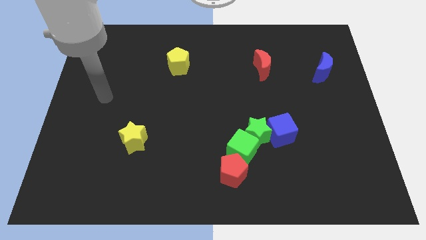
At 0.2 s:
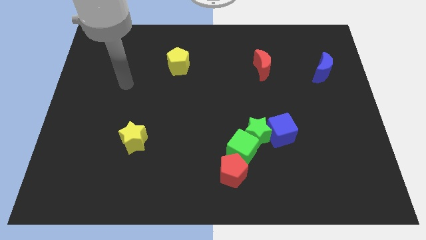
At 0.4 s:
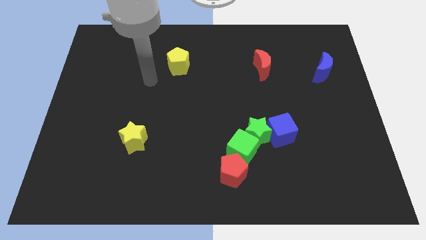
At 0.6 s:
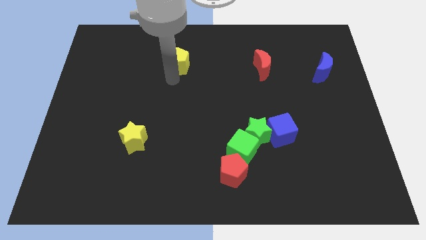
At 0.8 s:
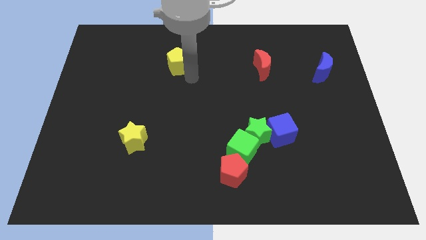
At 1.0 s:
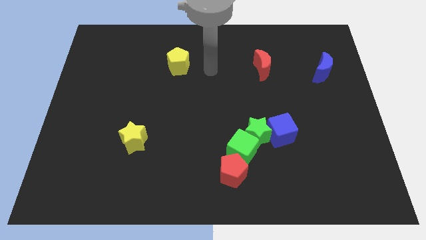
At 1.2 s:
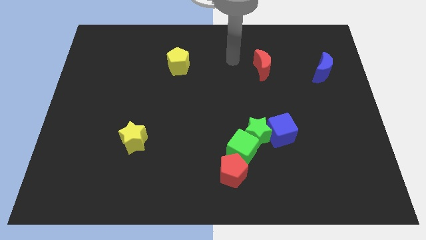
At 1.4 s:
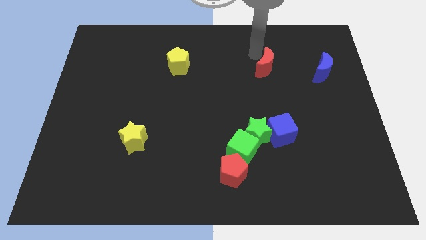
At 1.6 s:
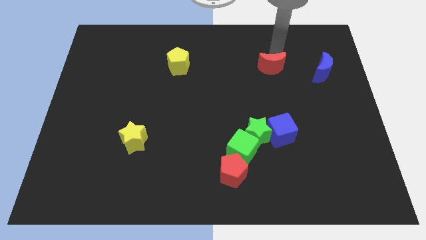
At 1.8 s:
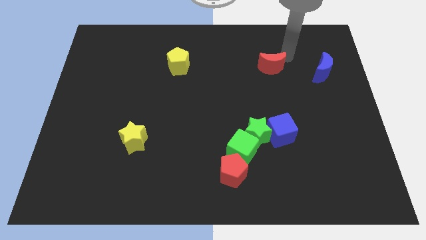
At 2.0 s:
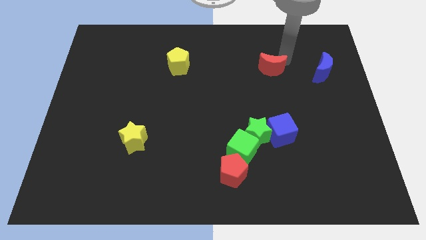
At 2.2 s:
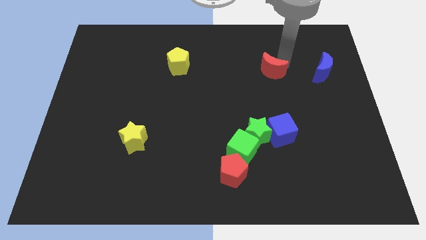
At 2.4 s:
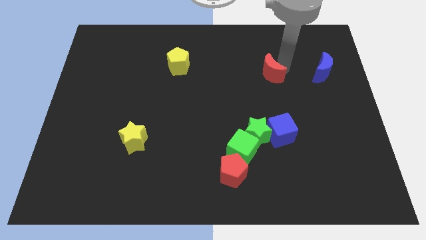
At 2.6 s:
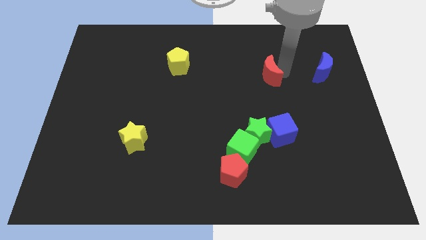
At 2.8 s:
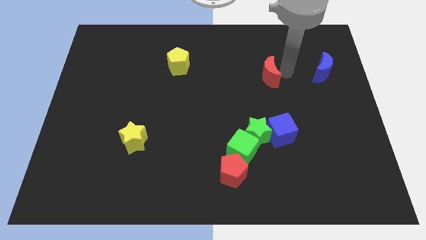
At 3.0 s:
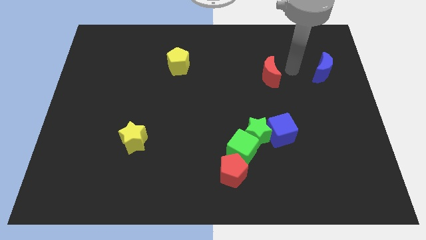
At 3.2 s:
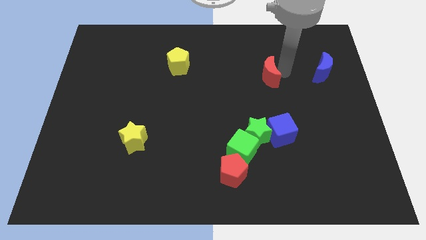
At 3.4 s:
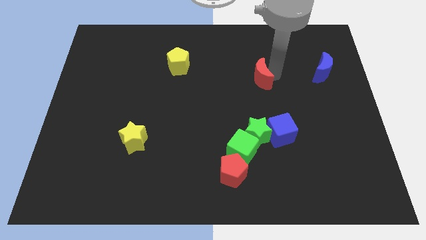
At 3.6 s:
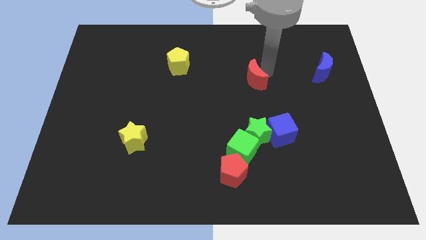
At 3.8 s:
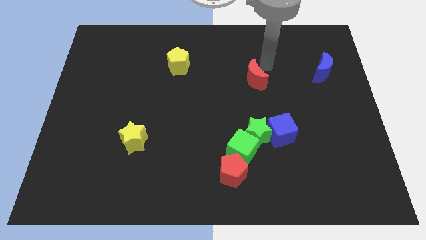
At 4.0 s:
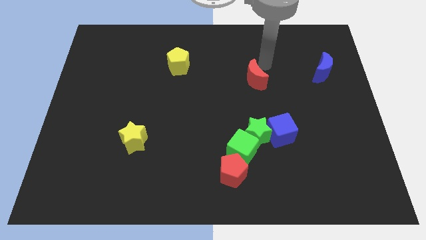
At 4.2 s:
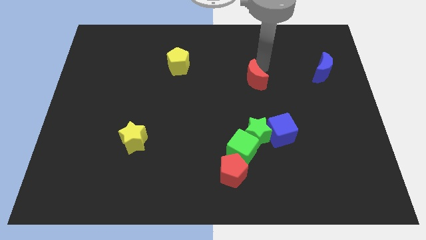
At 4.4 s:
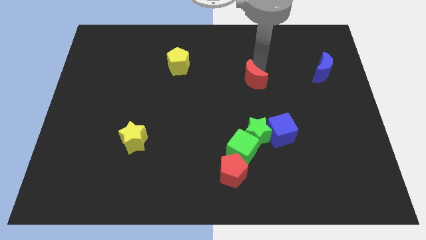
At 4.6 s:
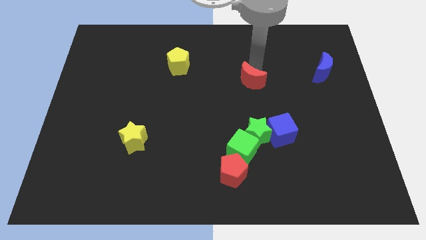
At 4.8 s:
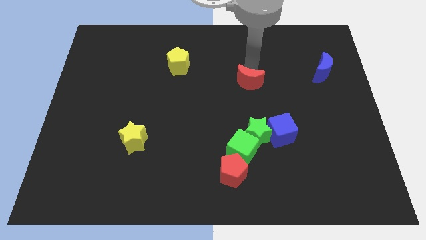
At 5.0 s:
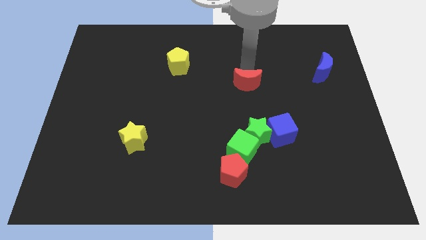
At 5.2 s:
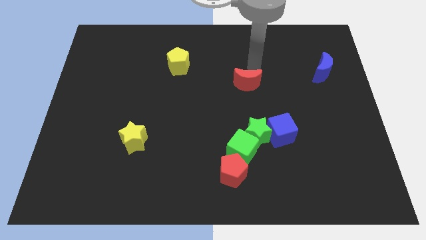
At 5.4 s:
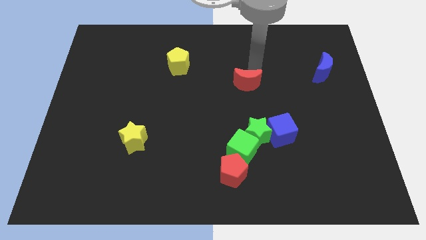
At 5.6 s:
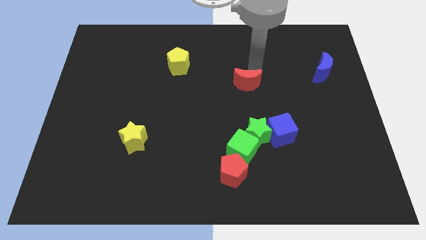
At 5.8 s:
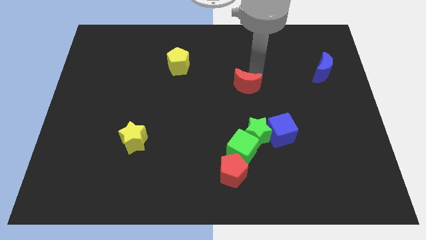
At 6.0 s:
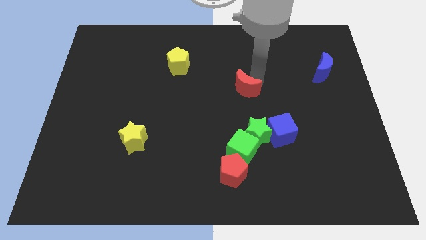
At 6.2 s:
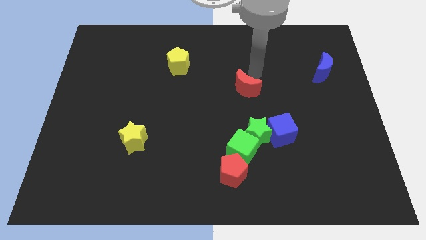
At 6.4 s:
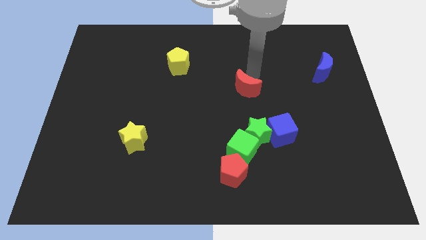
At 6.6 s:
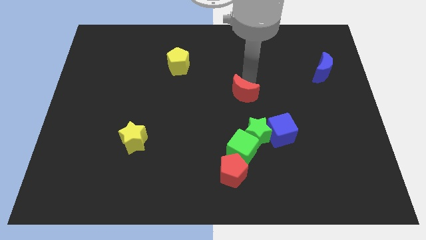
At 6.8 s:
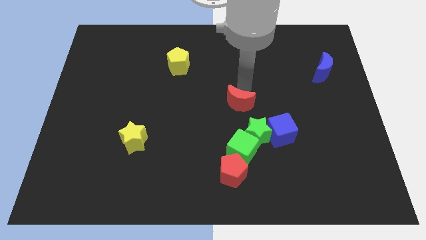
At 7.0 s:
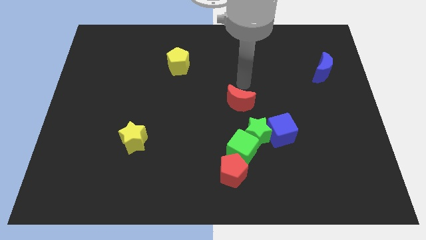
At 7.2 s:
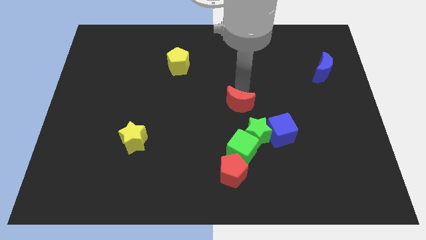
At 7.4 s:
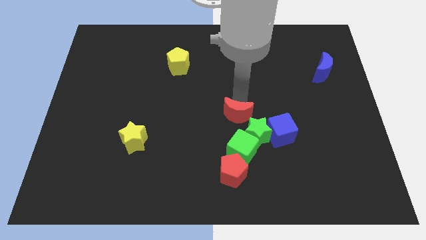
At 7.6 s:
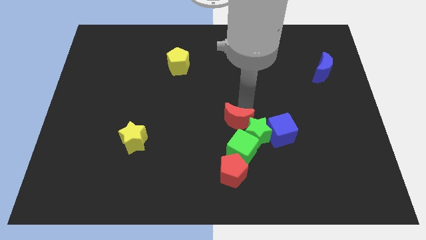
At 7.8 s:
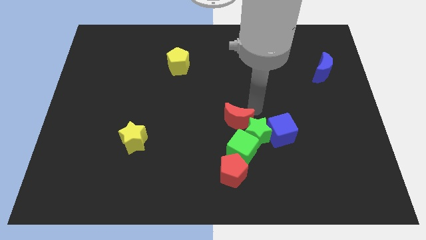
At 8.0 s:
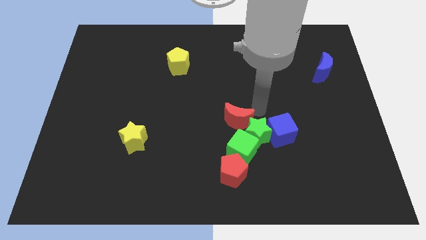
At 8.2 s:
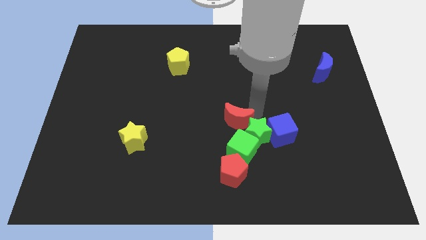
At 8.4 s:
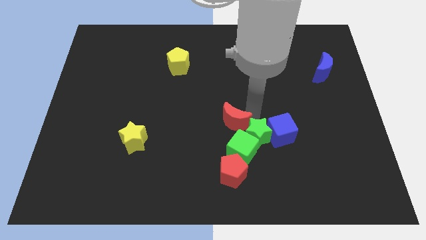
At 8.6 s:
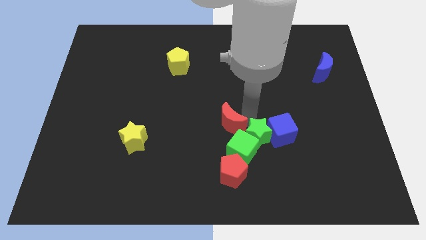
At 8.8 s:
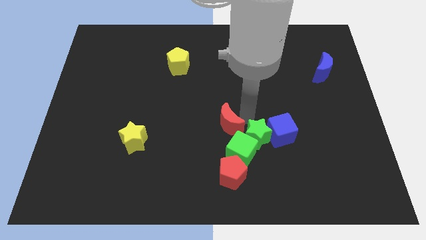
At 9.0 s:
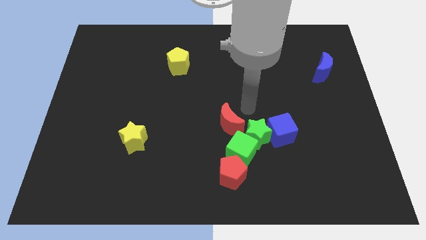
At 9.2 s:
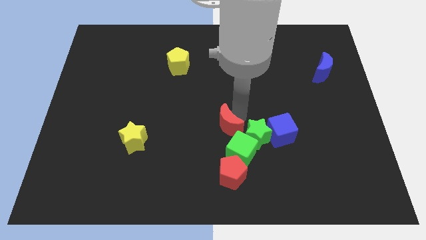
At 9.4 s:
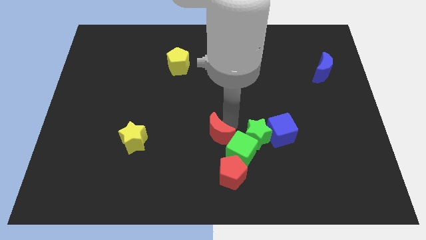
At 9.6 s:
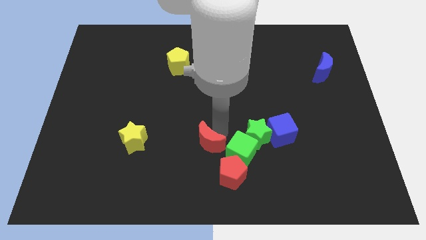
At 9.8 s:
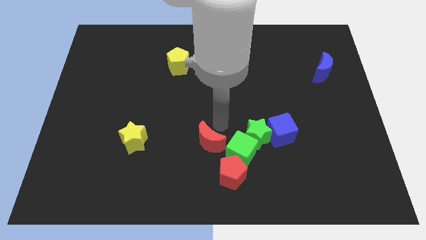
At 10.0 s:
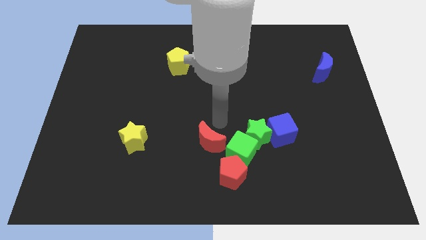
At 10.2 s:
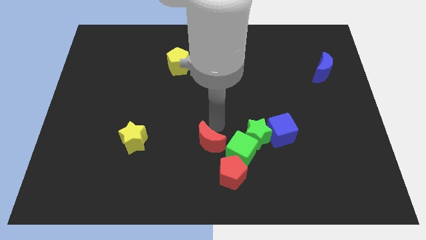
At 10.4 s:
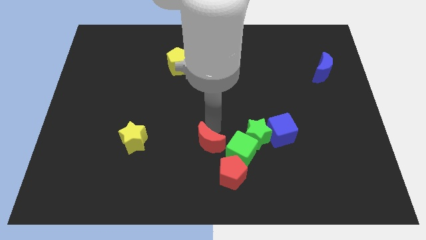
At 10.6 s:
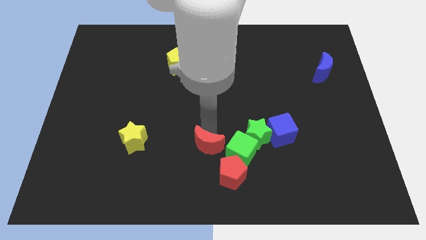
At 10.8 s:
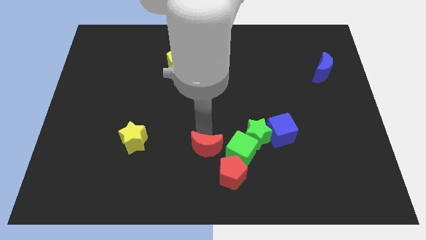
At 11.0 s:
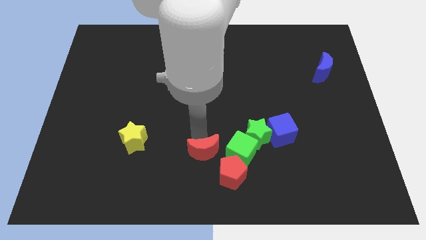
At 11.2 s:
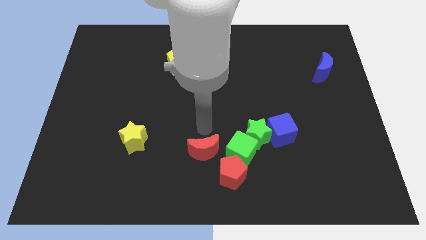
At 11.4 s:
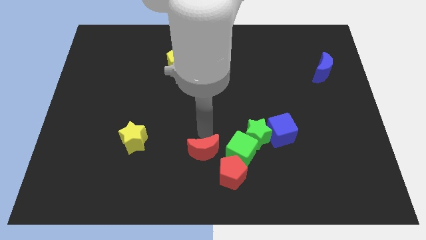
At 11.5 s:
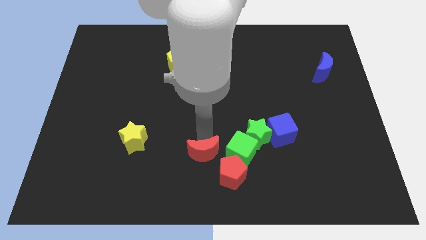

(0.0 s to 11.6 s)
put the red moon to the bottom

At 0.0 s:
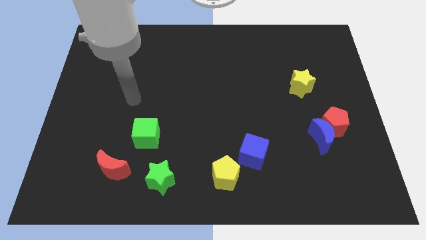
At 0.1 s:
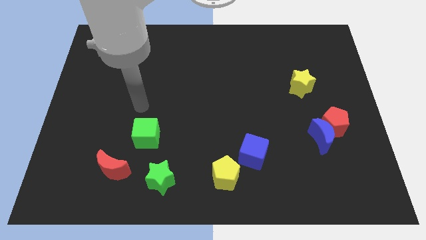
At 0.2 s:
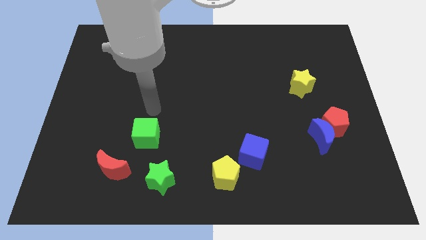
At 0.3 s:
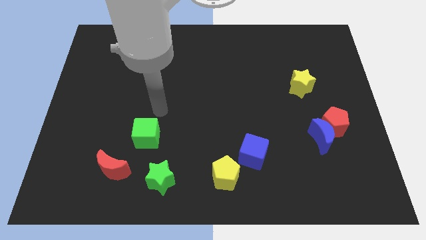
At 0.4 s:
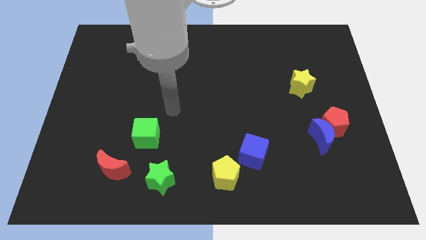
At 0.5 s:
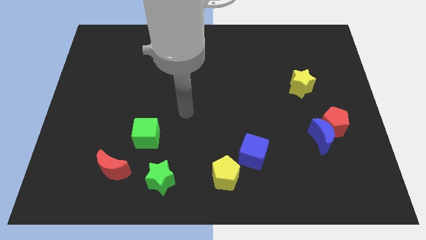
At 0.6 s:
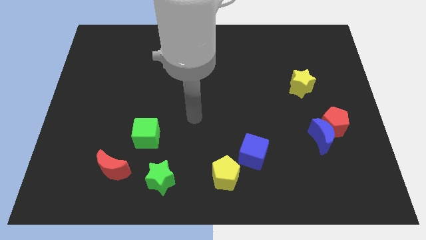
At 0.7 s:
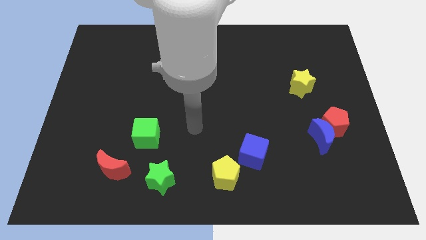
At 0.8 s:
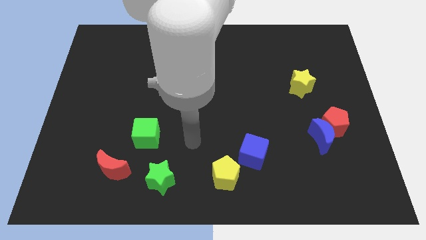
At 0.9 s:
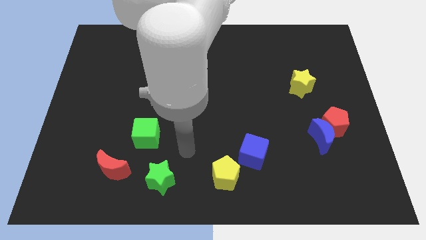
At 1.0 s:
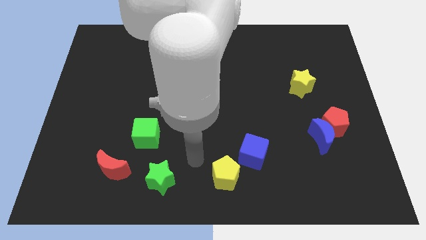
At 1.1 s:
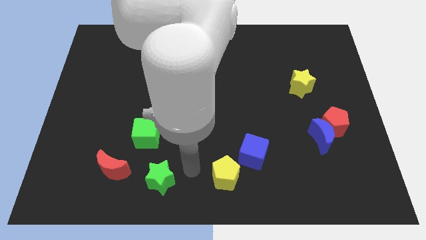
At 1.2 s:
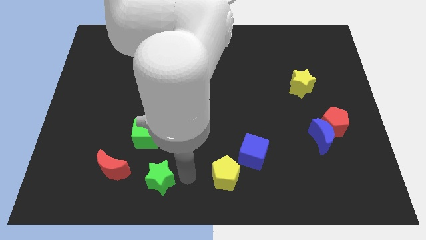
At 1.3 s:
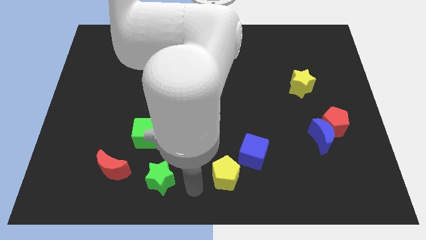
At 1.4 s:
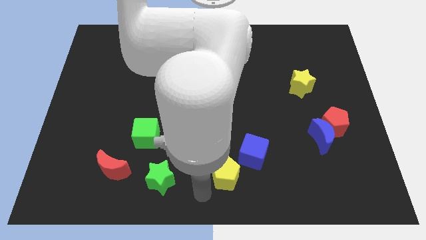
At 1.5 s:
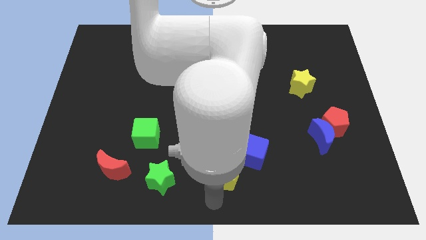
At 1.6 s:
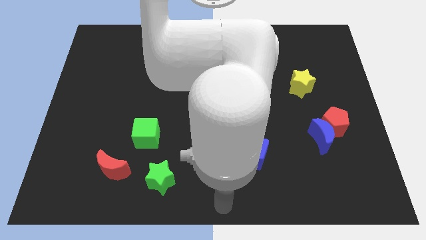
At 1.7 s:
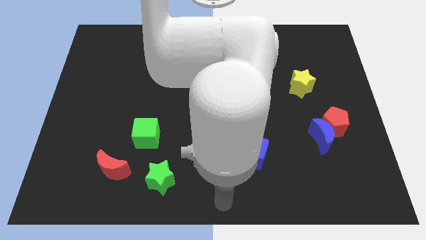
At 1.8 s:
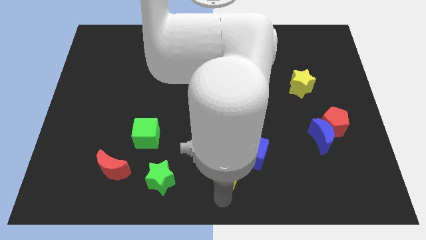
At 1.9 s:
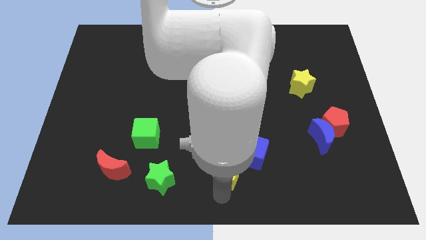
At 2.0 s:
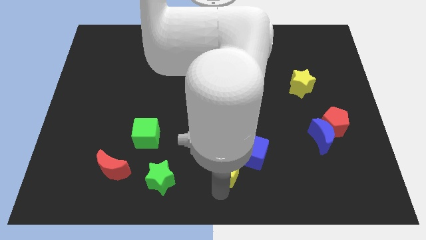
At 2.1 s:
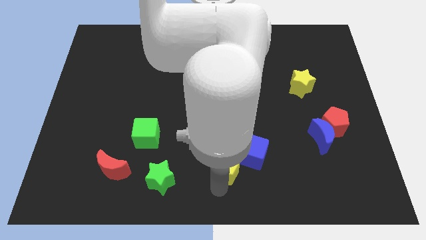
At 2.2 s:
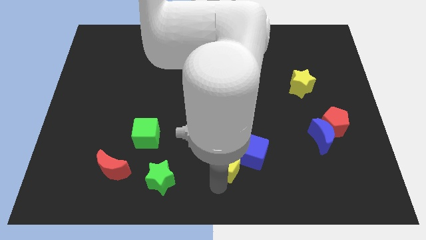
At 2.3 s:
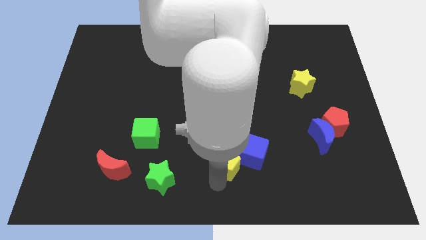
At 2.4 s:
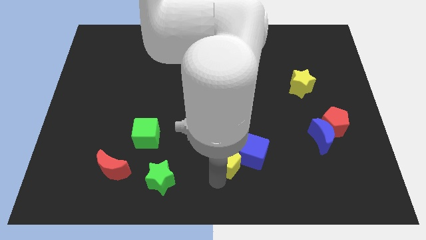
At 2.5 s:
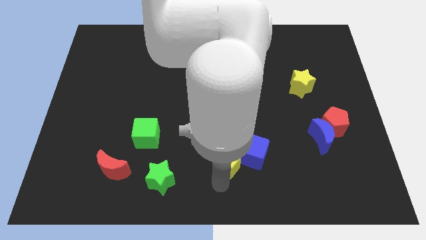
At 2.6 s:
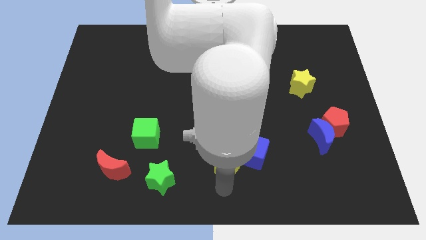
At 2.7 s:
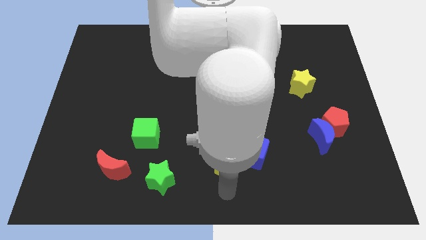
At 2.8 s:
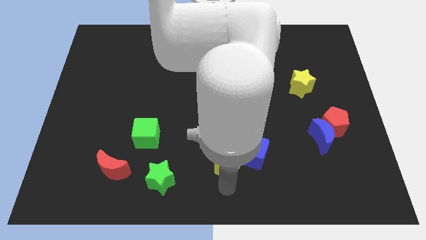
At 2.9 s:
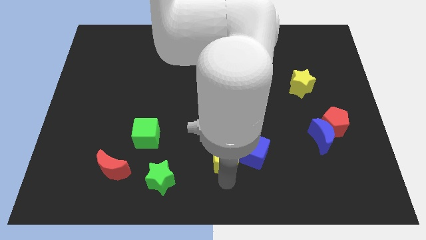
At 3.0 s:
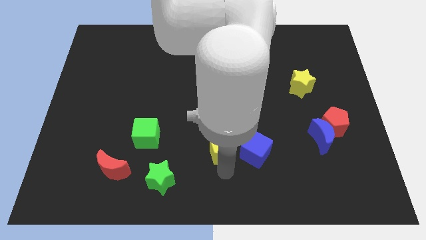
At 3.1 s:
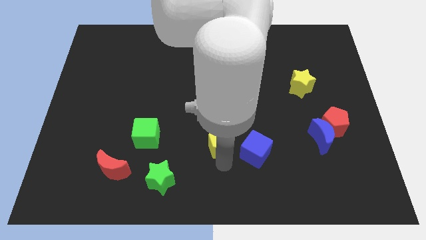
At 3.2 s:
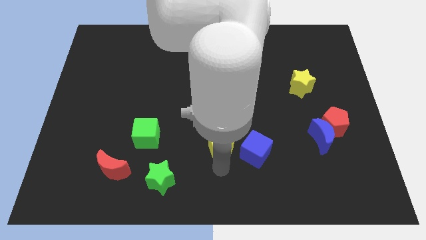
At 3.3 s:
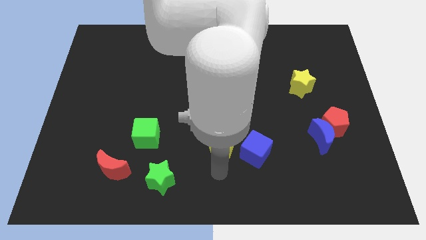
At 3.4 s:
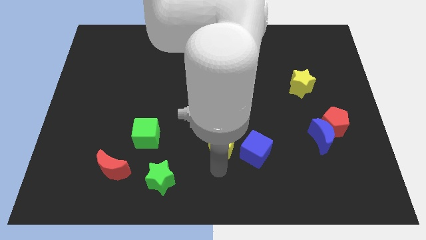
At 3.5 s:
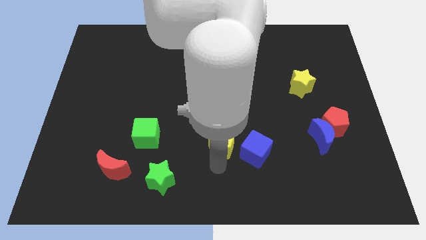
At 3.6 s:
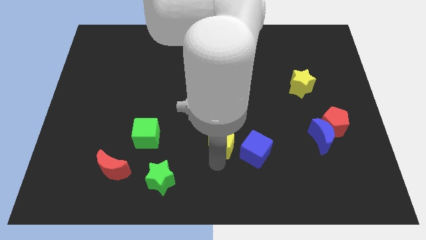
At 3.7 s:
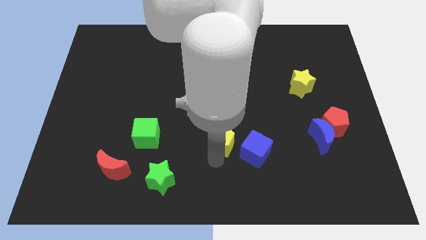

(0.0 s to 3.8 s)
slide the yellow pentagon to the middle of the board
